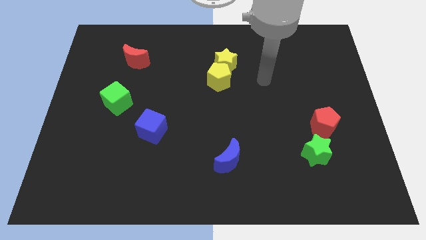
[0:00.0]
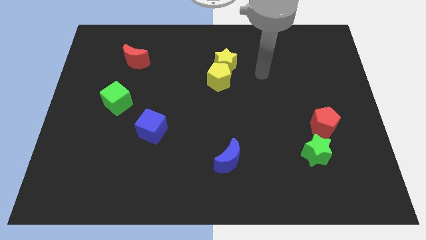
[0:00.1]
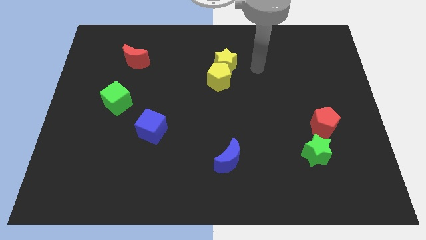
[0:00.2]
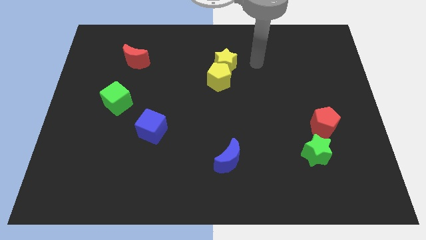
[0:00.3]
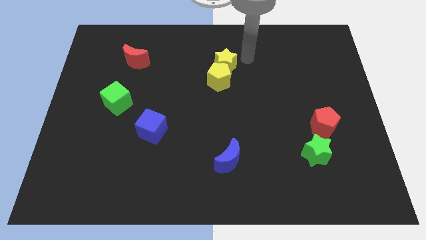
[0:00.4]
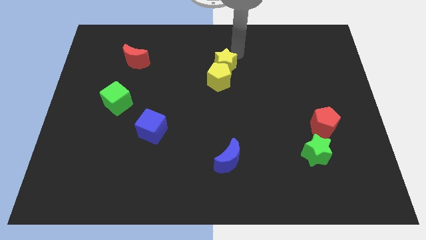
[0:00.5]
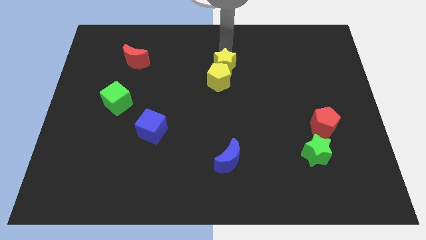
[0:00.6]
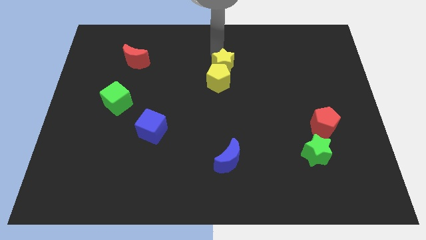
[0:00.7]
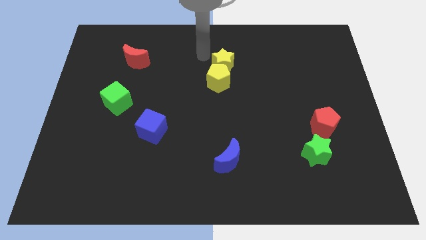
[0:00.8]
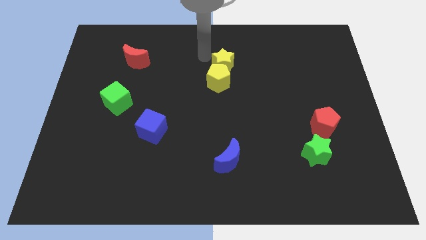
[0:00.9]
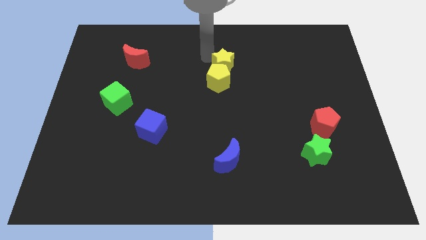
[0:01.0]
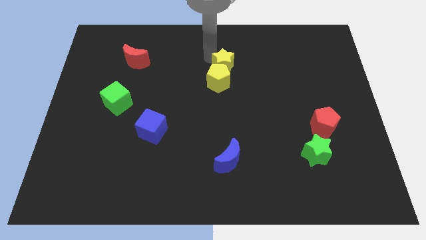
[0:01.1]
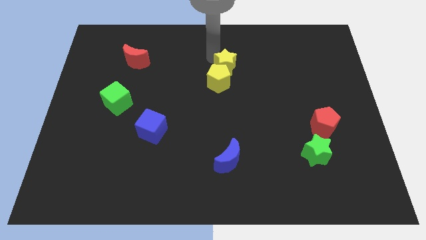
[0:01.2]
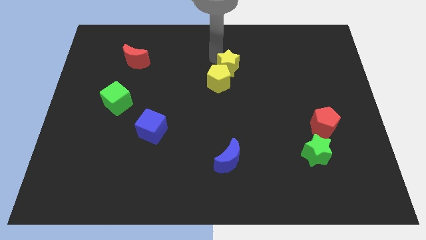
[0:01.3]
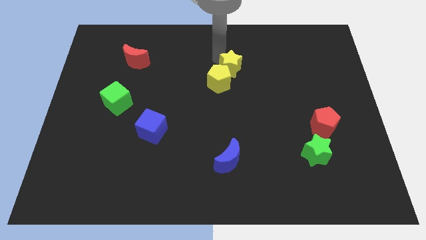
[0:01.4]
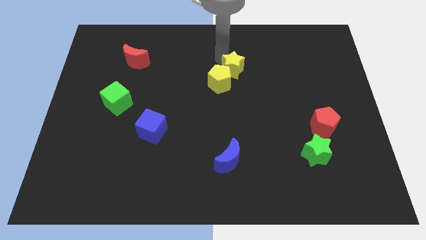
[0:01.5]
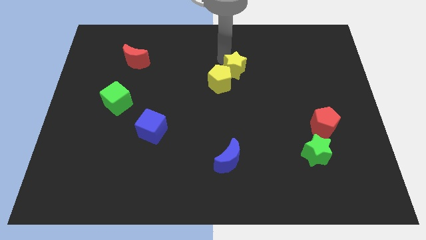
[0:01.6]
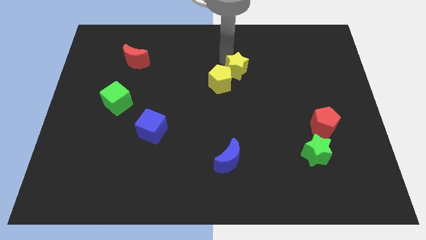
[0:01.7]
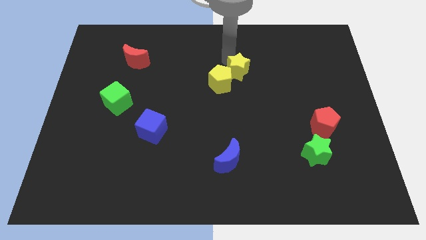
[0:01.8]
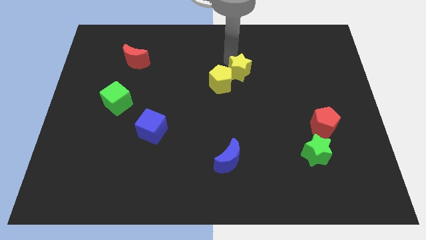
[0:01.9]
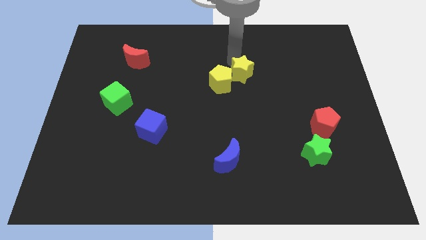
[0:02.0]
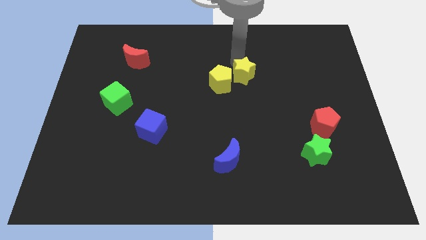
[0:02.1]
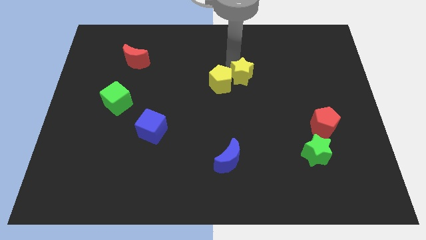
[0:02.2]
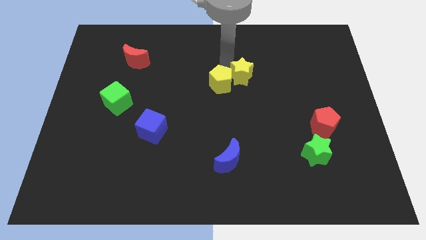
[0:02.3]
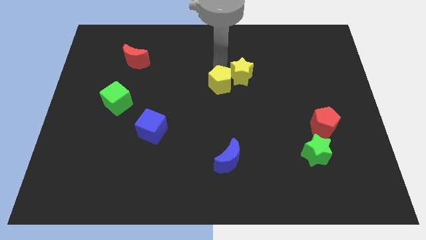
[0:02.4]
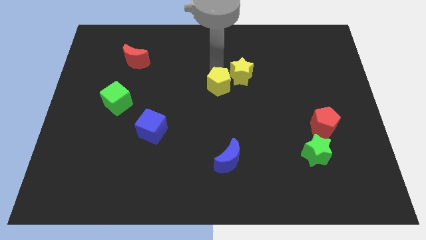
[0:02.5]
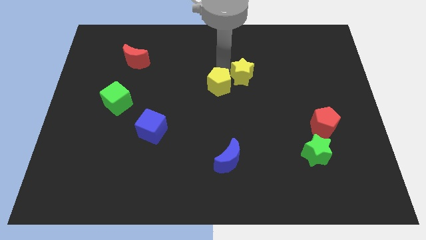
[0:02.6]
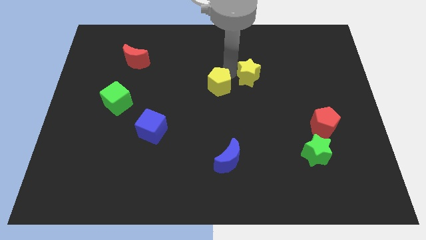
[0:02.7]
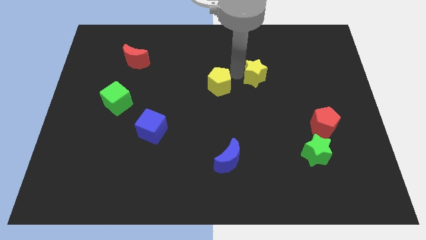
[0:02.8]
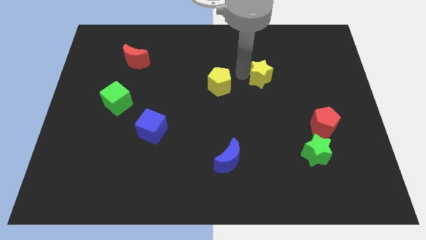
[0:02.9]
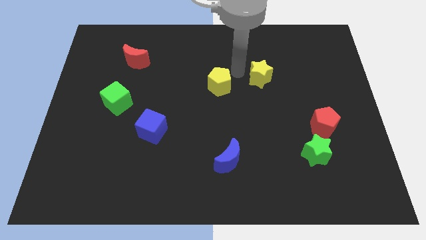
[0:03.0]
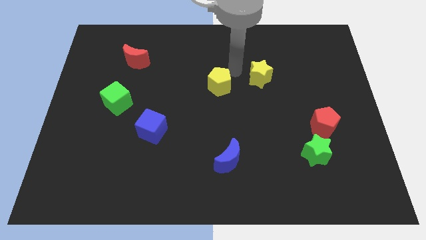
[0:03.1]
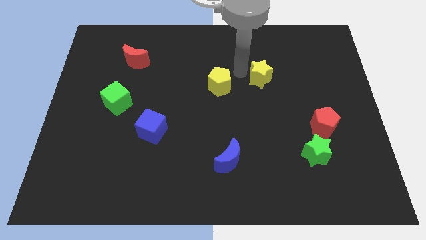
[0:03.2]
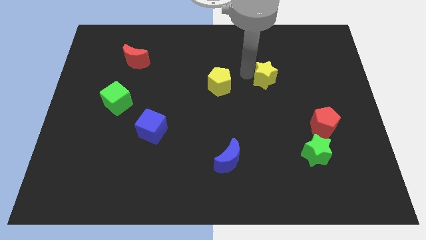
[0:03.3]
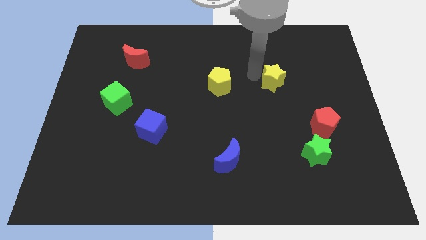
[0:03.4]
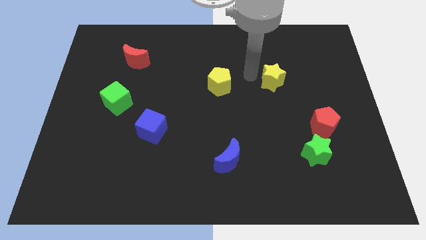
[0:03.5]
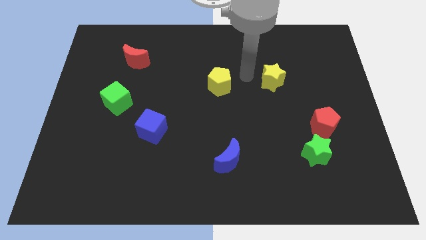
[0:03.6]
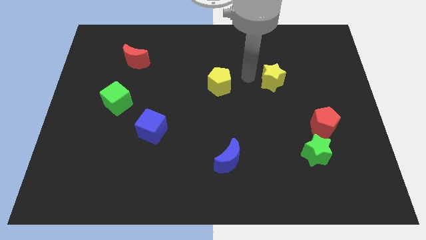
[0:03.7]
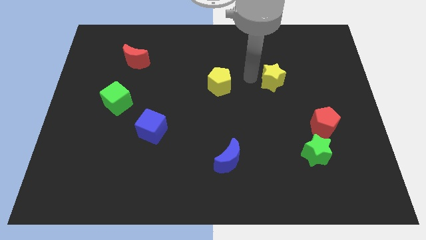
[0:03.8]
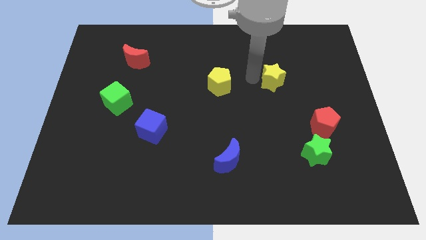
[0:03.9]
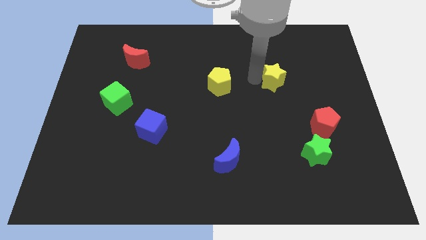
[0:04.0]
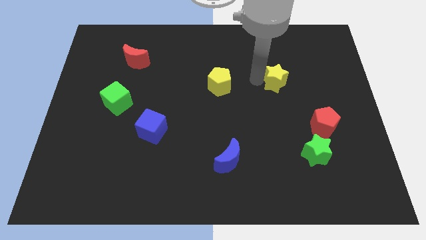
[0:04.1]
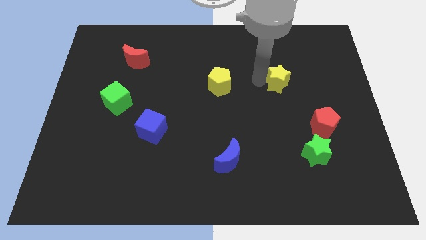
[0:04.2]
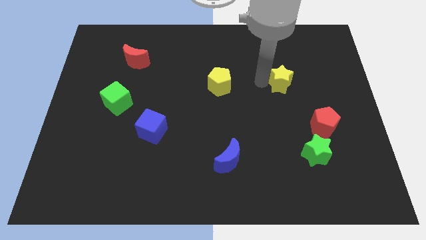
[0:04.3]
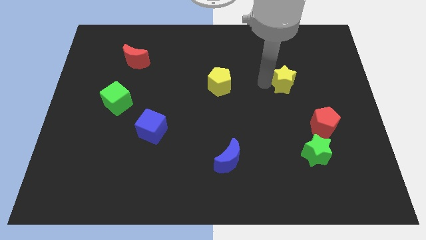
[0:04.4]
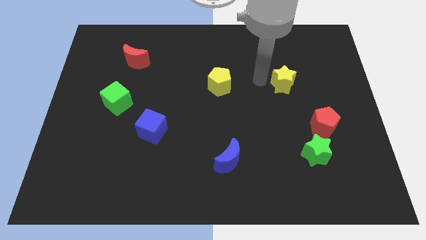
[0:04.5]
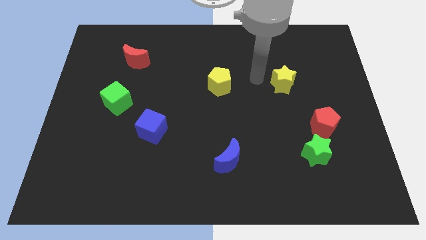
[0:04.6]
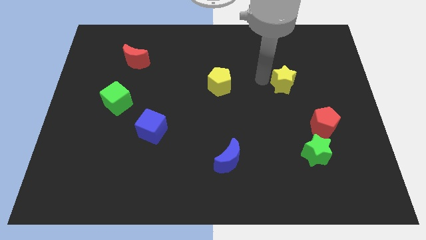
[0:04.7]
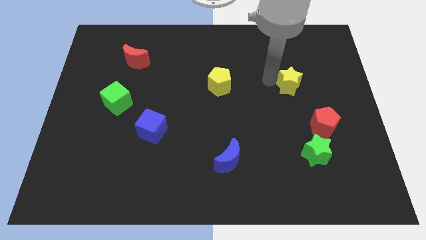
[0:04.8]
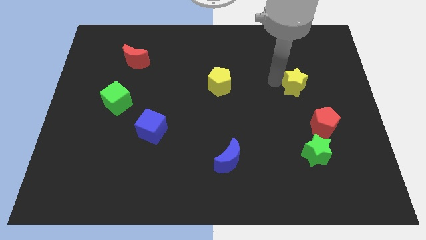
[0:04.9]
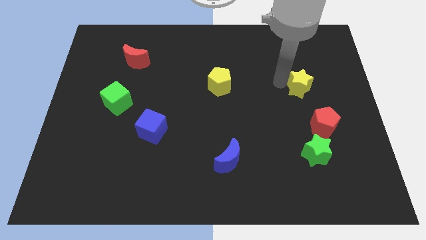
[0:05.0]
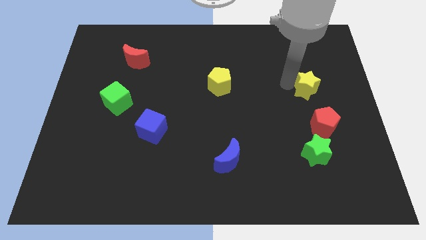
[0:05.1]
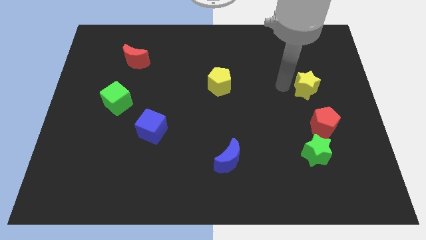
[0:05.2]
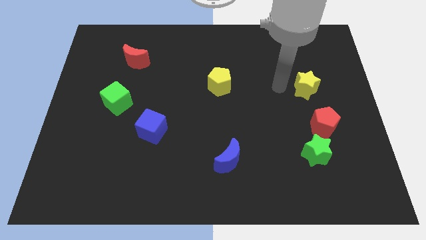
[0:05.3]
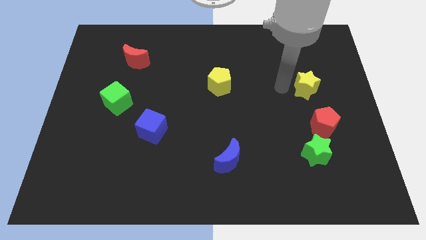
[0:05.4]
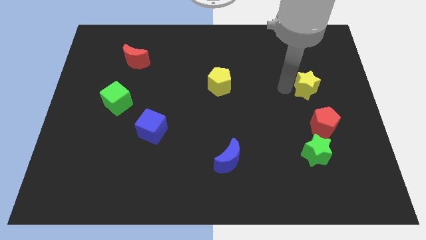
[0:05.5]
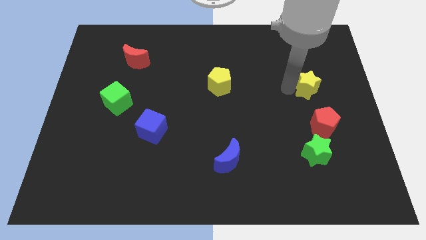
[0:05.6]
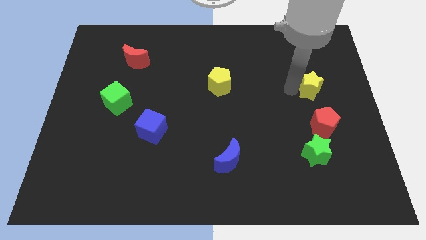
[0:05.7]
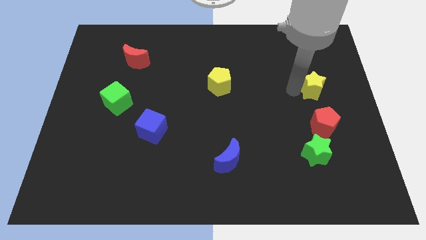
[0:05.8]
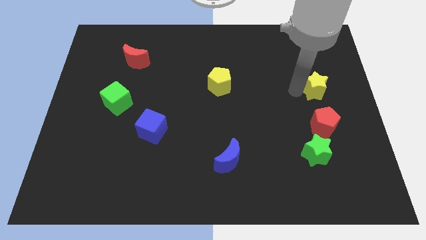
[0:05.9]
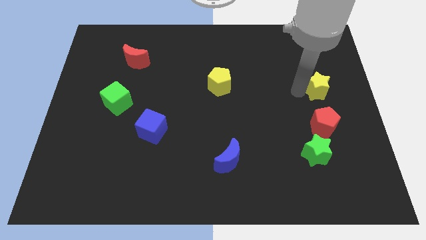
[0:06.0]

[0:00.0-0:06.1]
put the yellow star to the right side of the board

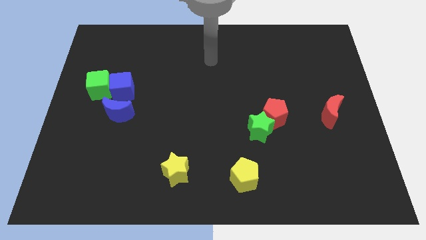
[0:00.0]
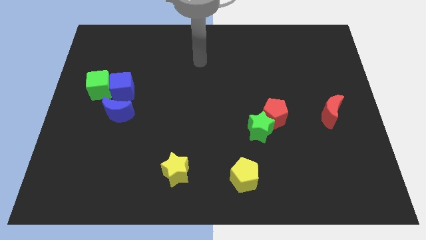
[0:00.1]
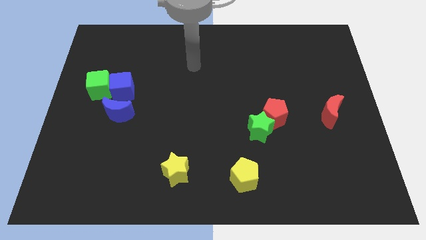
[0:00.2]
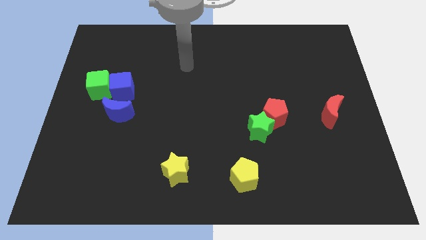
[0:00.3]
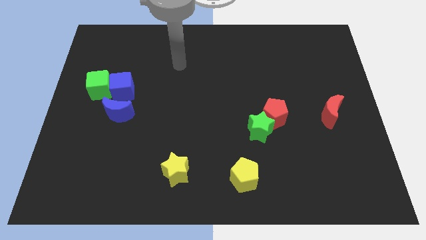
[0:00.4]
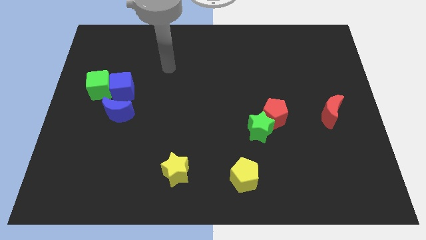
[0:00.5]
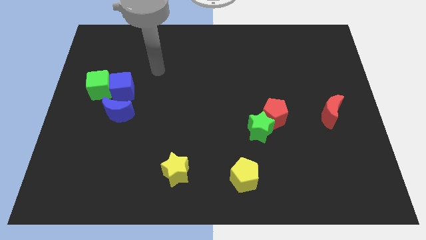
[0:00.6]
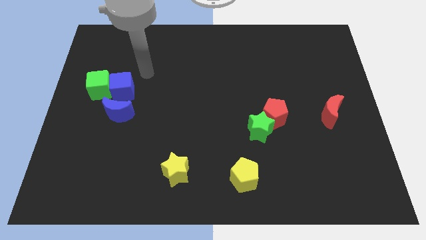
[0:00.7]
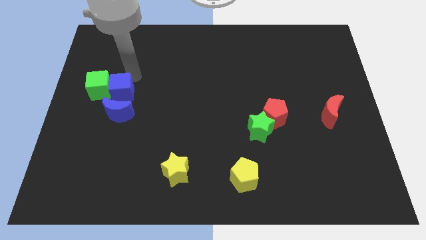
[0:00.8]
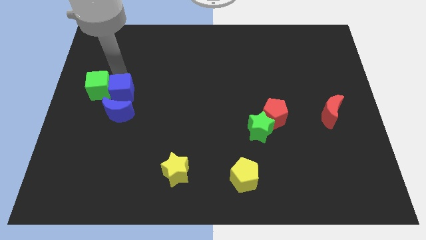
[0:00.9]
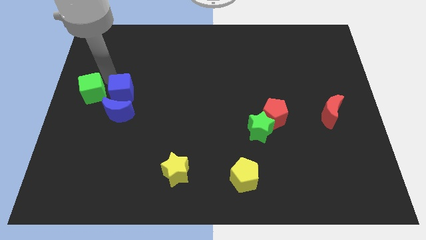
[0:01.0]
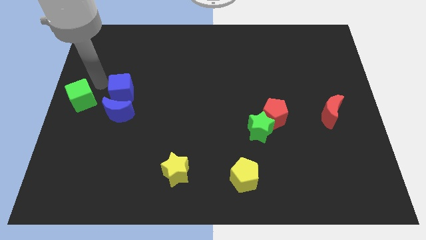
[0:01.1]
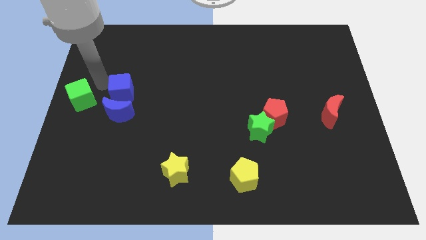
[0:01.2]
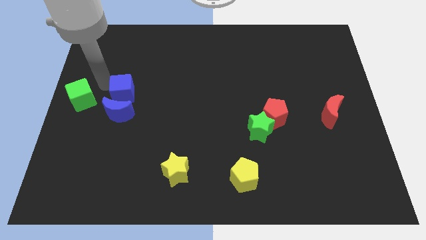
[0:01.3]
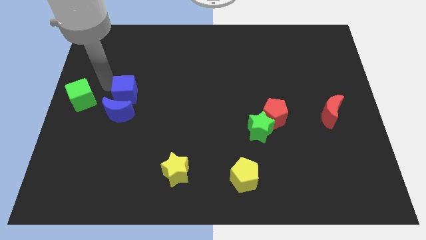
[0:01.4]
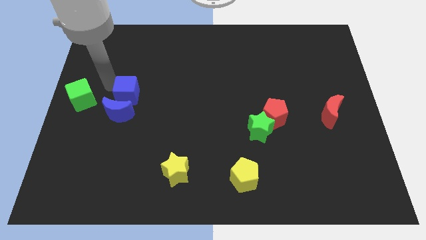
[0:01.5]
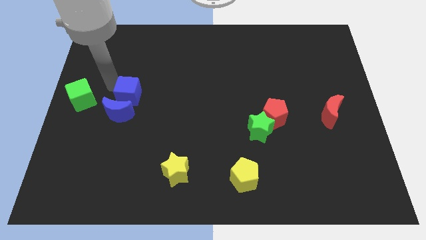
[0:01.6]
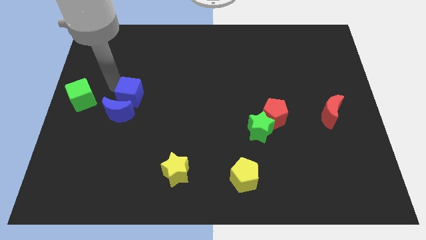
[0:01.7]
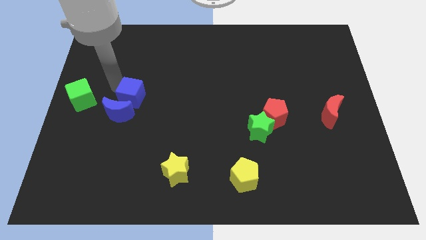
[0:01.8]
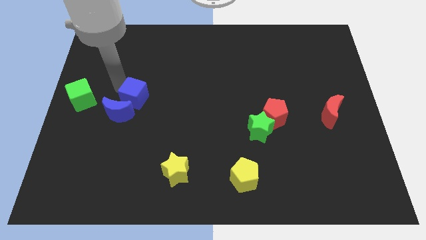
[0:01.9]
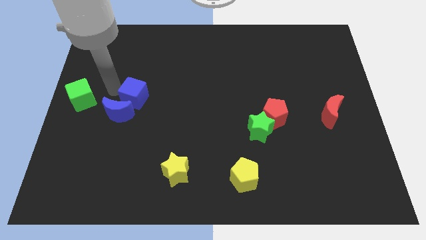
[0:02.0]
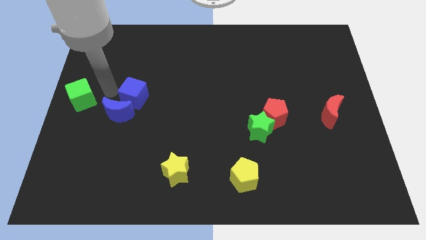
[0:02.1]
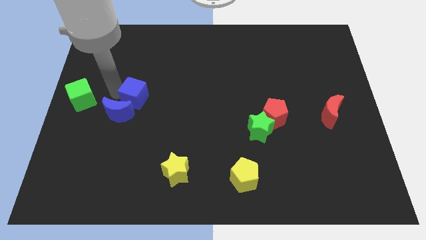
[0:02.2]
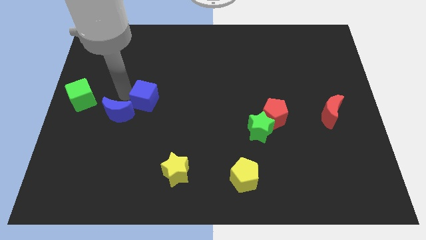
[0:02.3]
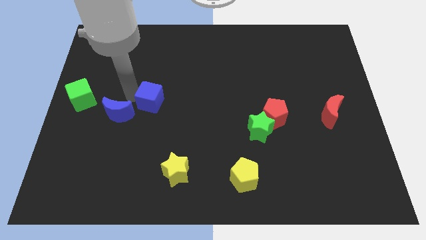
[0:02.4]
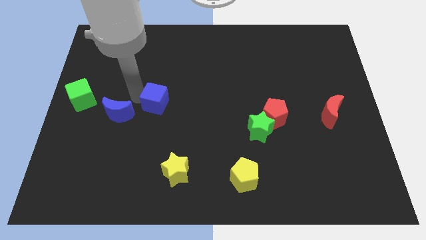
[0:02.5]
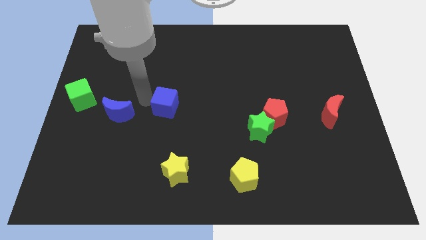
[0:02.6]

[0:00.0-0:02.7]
slide the blue cube to the center
